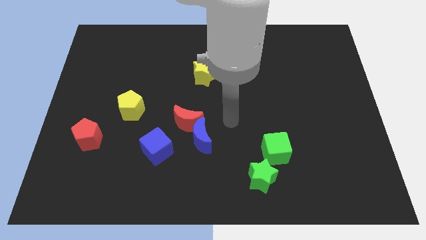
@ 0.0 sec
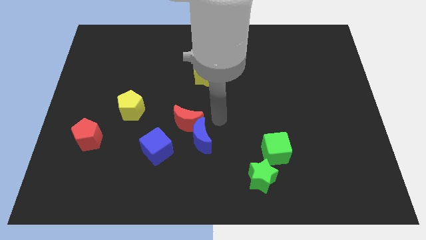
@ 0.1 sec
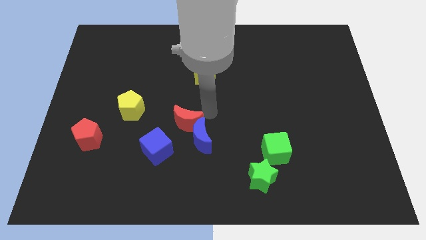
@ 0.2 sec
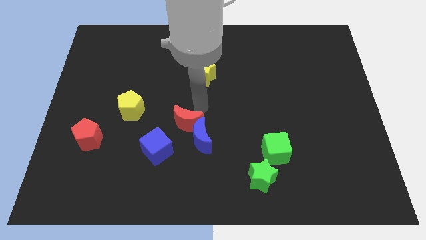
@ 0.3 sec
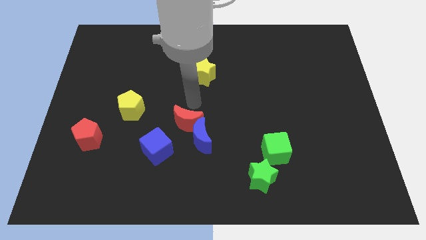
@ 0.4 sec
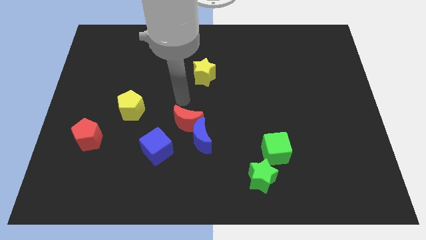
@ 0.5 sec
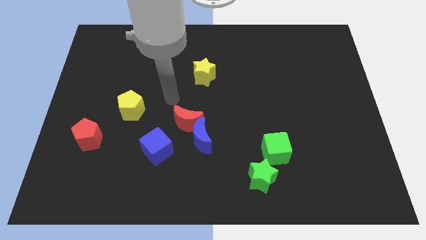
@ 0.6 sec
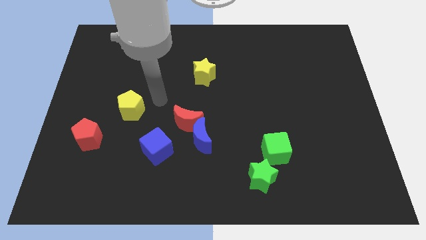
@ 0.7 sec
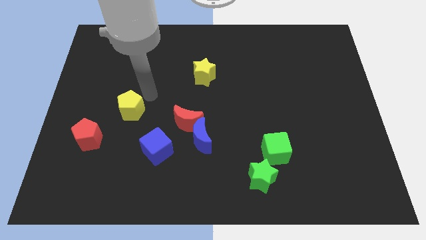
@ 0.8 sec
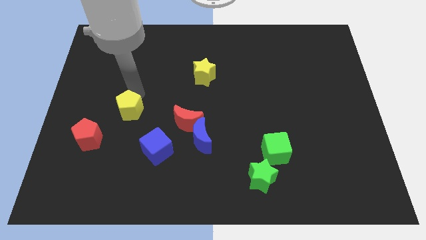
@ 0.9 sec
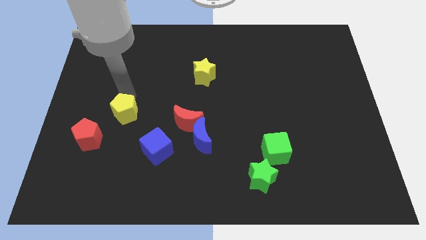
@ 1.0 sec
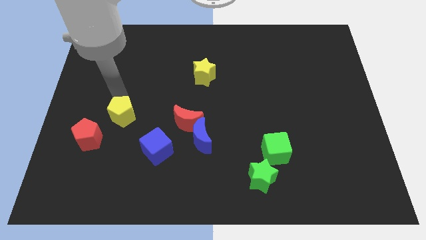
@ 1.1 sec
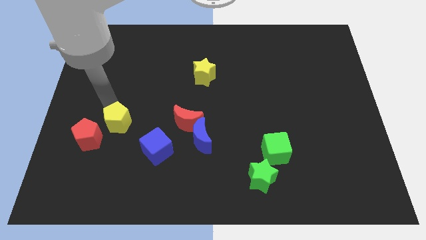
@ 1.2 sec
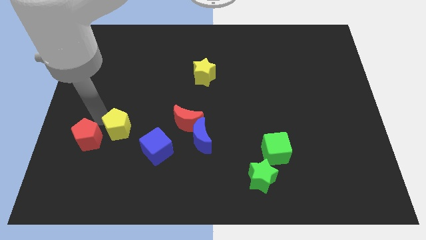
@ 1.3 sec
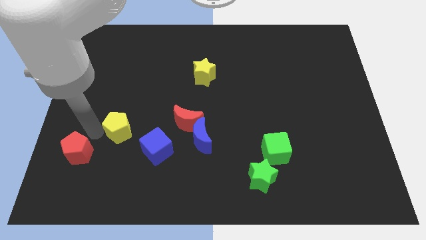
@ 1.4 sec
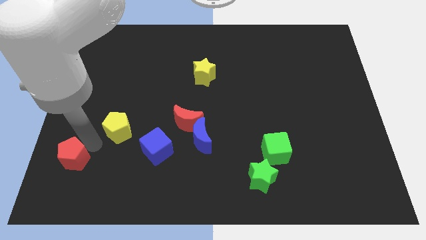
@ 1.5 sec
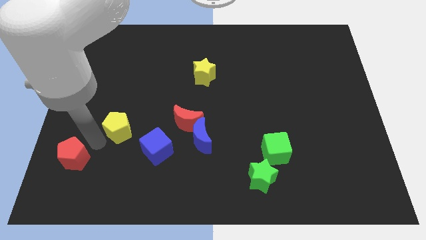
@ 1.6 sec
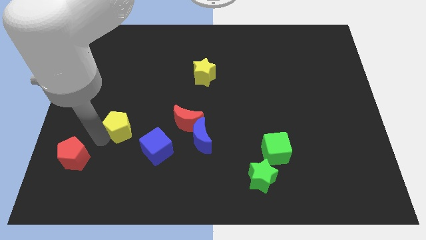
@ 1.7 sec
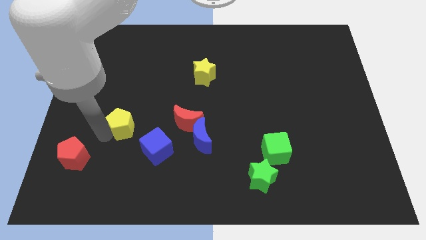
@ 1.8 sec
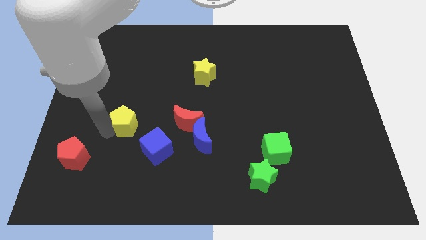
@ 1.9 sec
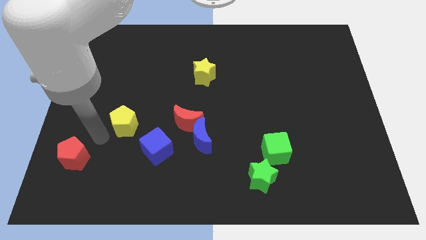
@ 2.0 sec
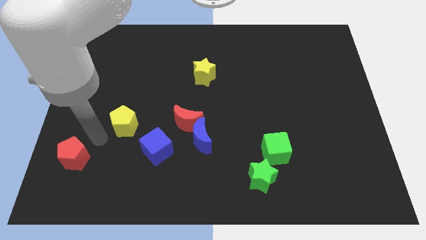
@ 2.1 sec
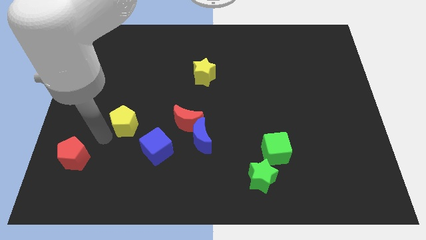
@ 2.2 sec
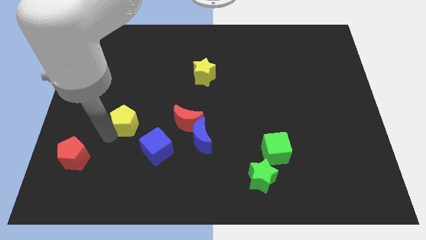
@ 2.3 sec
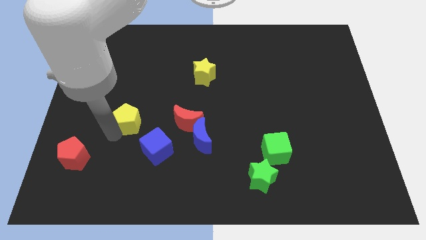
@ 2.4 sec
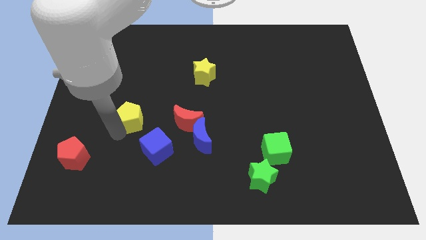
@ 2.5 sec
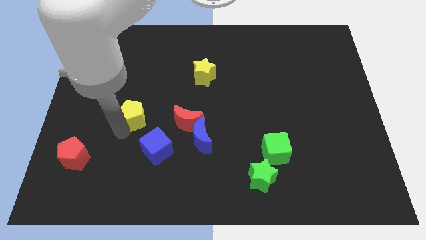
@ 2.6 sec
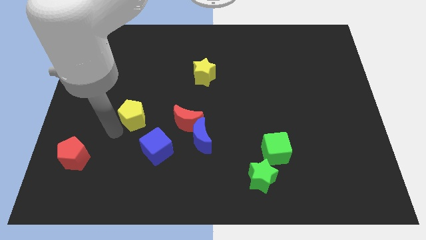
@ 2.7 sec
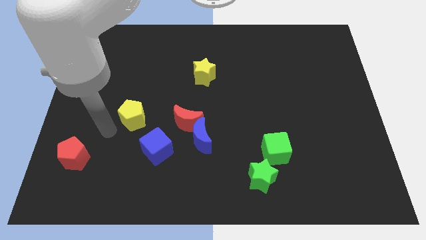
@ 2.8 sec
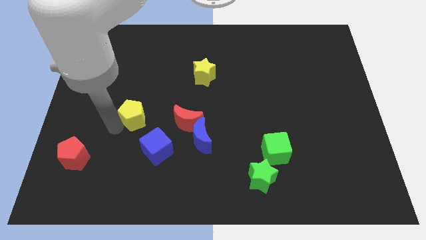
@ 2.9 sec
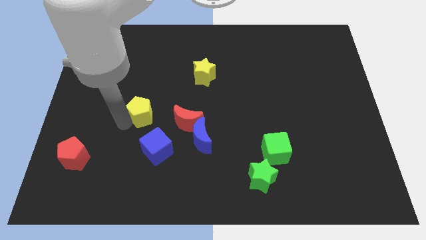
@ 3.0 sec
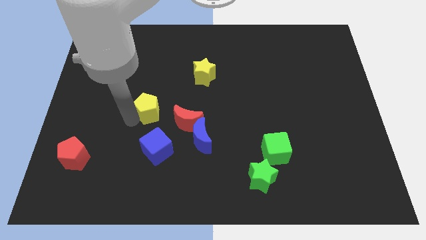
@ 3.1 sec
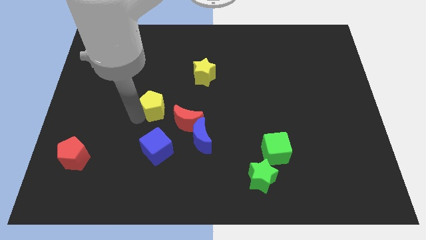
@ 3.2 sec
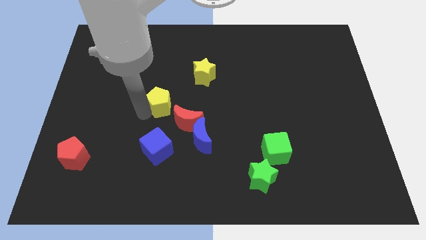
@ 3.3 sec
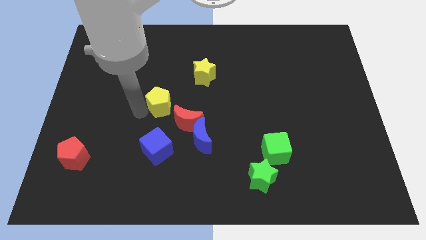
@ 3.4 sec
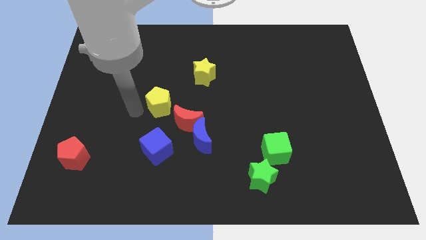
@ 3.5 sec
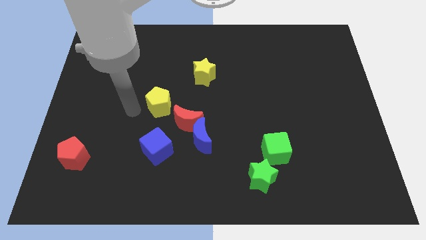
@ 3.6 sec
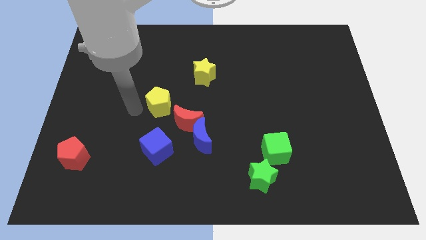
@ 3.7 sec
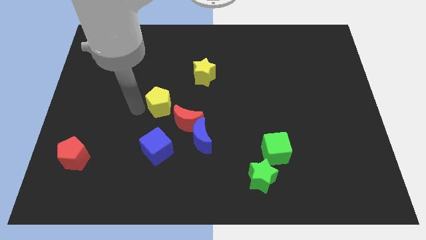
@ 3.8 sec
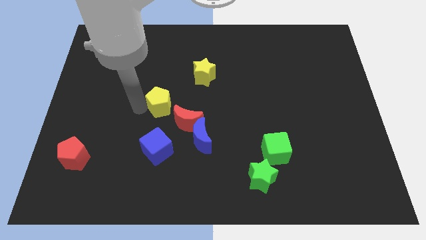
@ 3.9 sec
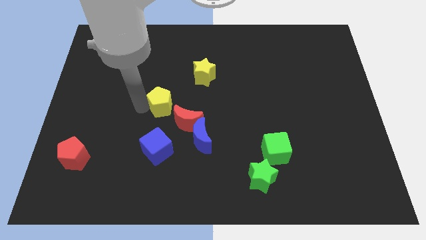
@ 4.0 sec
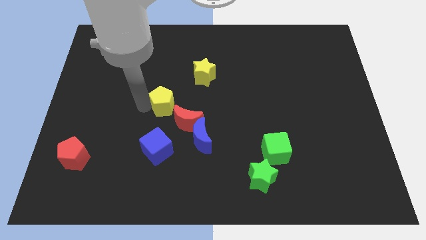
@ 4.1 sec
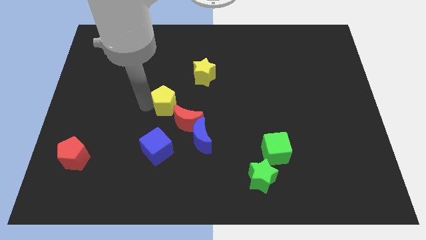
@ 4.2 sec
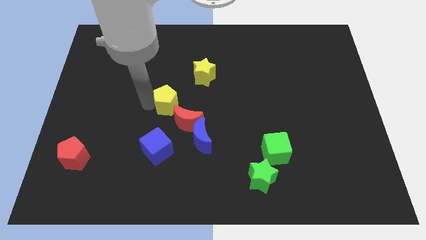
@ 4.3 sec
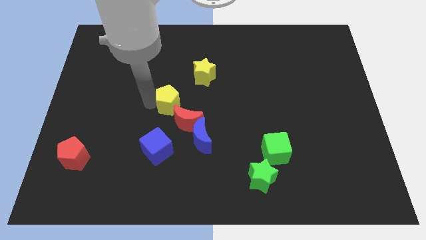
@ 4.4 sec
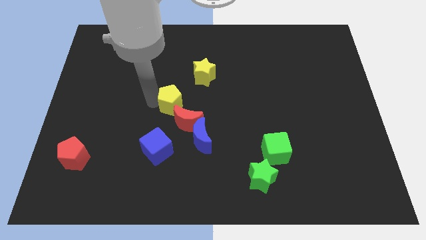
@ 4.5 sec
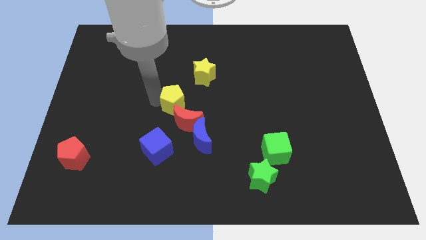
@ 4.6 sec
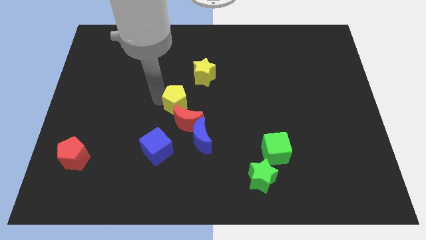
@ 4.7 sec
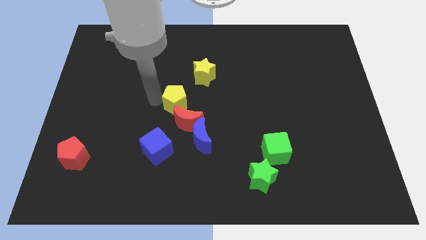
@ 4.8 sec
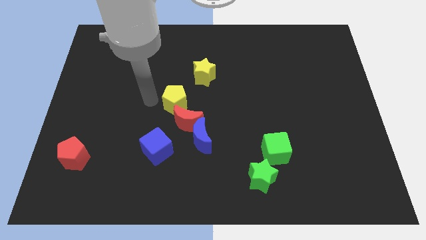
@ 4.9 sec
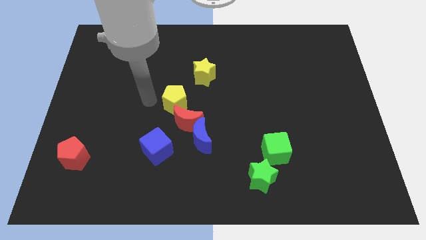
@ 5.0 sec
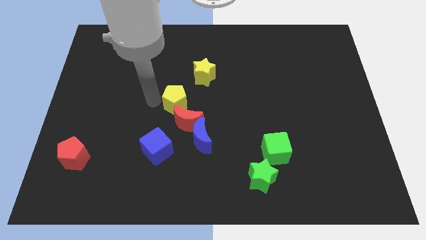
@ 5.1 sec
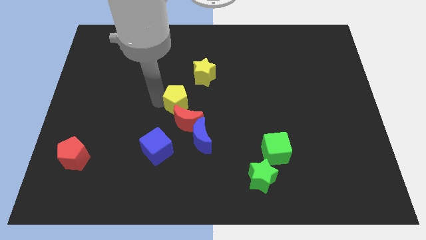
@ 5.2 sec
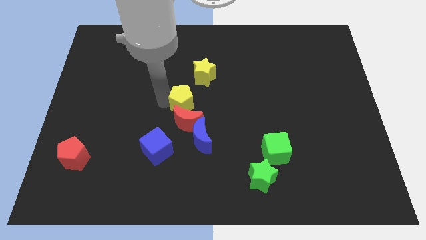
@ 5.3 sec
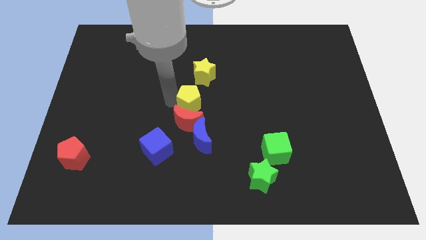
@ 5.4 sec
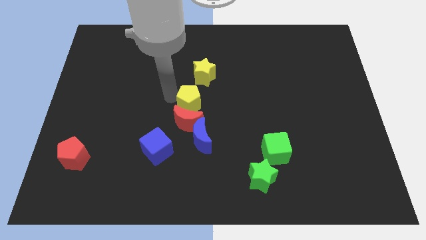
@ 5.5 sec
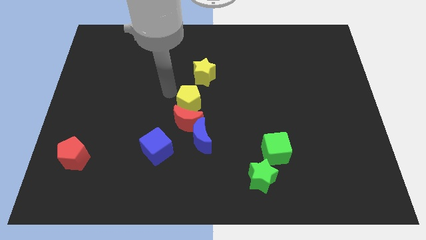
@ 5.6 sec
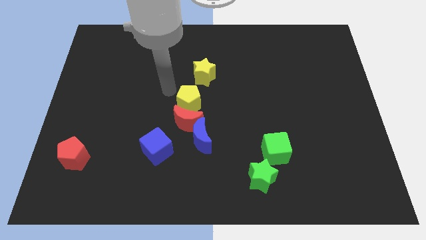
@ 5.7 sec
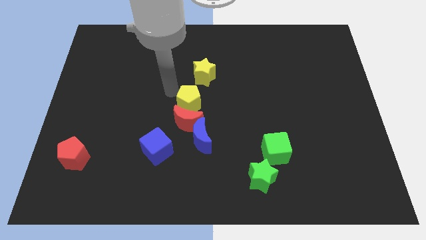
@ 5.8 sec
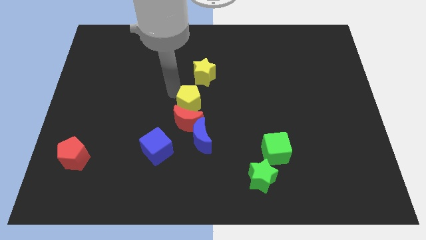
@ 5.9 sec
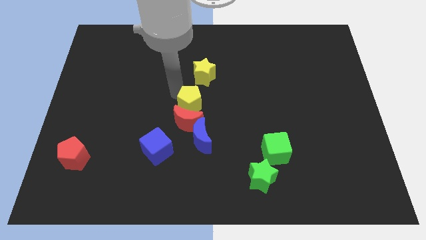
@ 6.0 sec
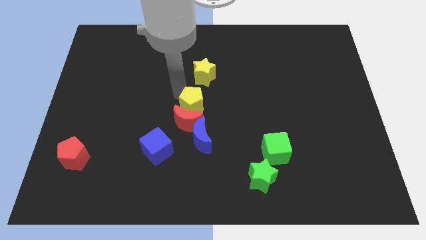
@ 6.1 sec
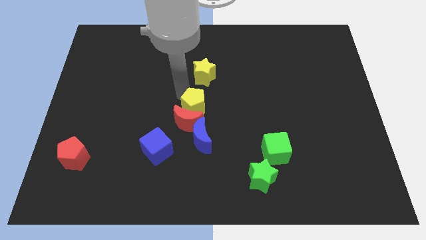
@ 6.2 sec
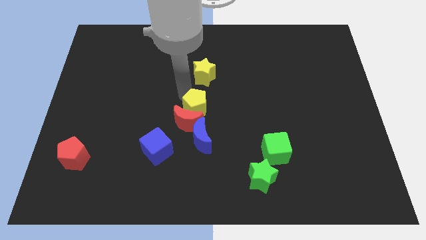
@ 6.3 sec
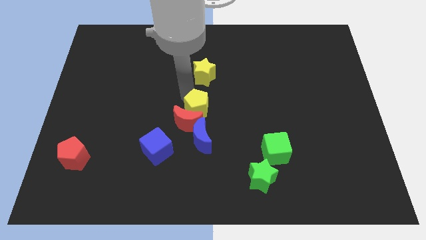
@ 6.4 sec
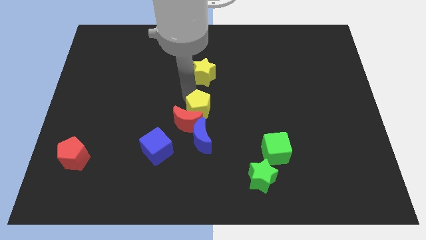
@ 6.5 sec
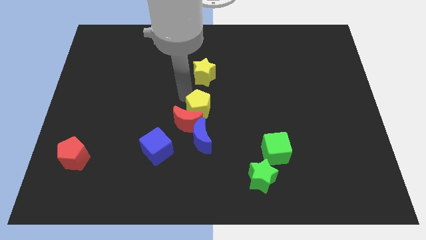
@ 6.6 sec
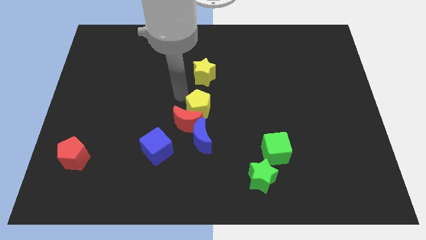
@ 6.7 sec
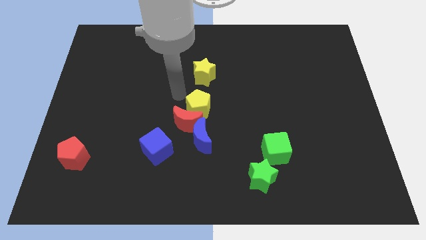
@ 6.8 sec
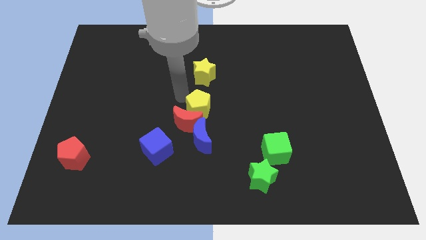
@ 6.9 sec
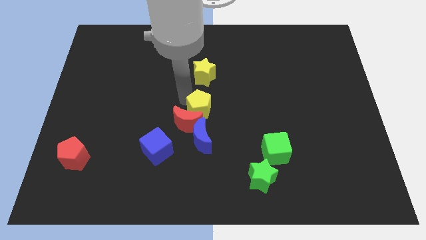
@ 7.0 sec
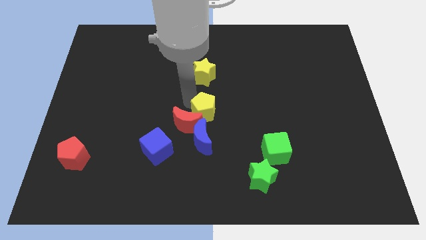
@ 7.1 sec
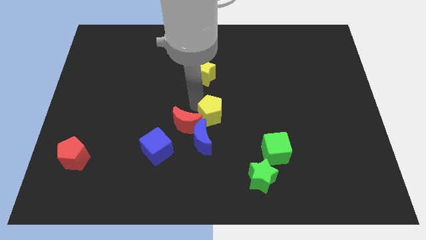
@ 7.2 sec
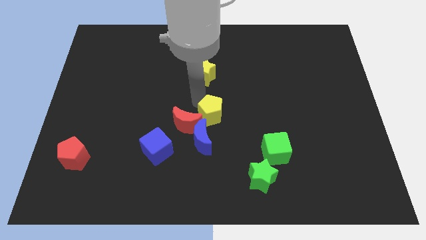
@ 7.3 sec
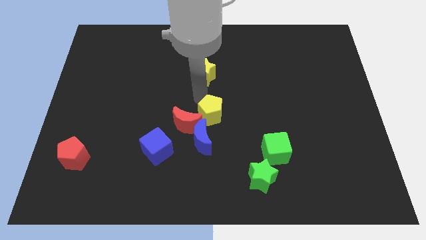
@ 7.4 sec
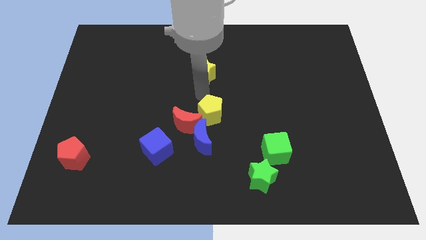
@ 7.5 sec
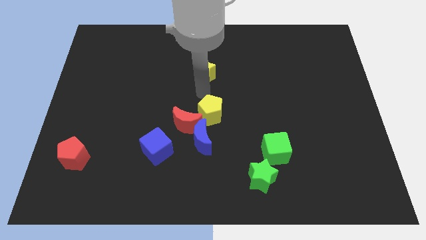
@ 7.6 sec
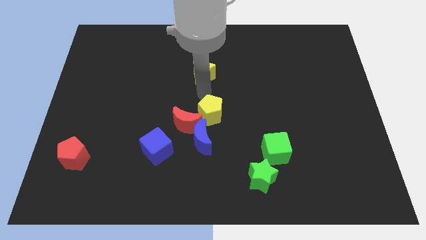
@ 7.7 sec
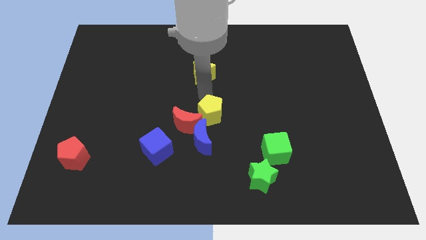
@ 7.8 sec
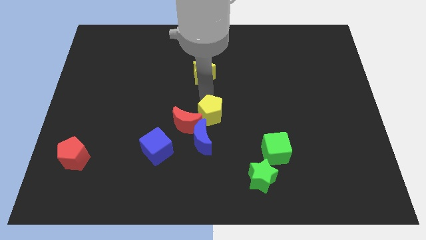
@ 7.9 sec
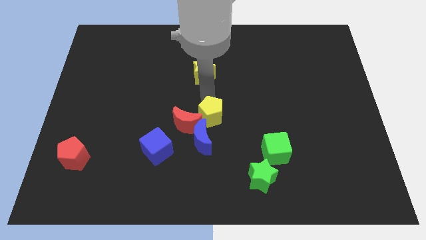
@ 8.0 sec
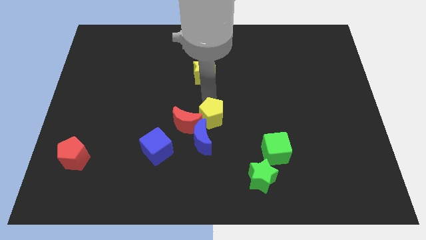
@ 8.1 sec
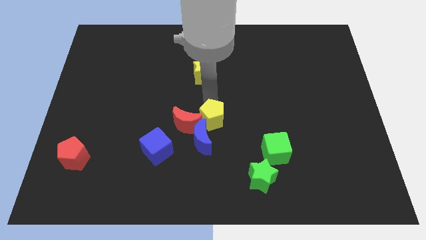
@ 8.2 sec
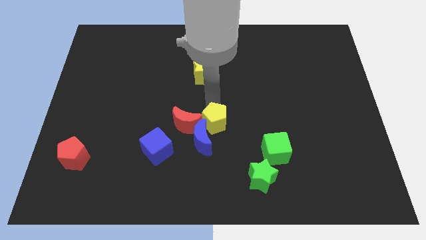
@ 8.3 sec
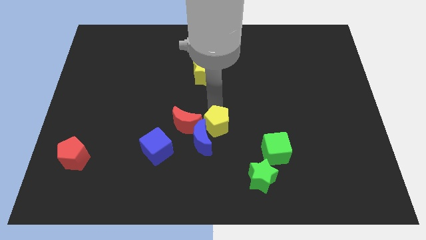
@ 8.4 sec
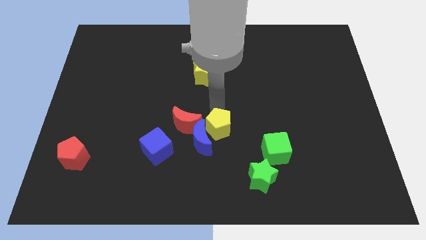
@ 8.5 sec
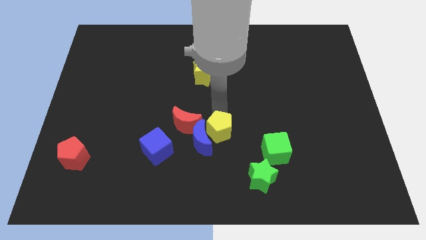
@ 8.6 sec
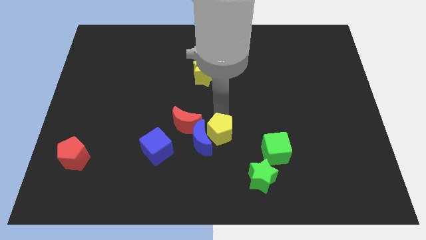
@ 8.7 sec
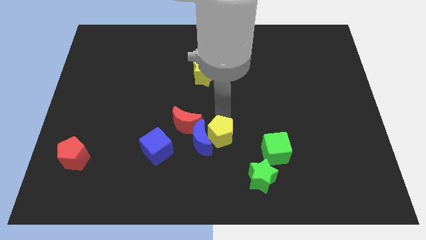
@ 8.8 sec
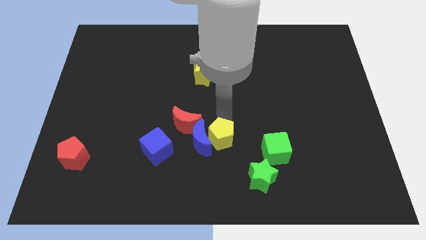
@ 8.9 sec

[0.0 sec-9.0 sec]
slide the yellow pentagon diagonally up and to the left of the green star
